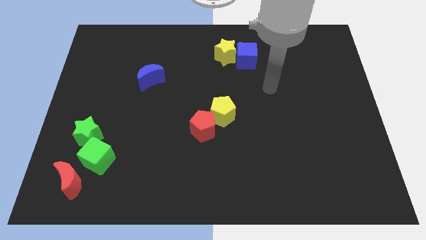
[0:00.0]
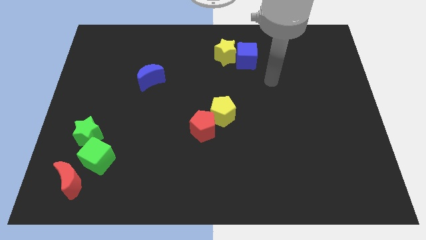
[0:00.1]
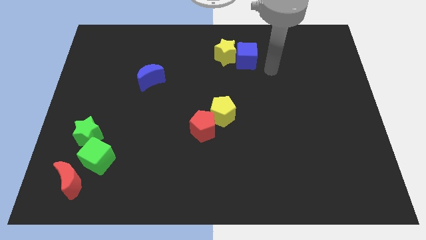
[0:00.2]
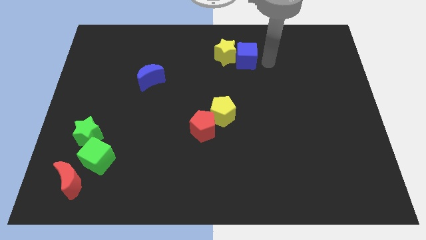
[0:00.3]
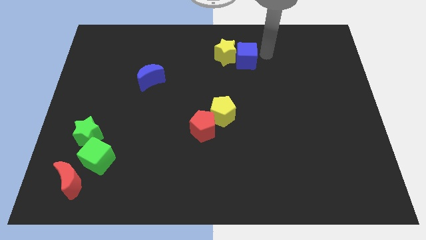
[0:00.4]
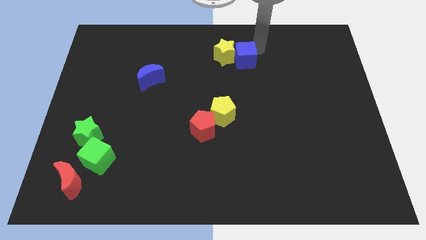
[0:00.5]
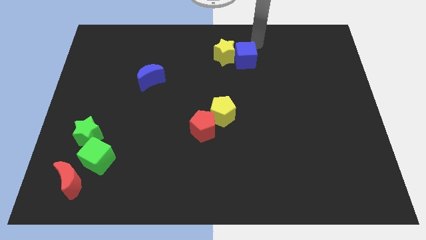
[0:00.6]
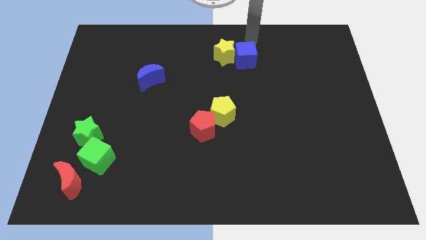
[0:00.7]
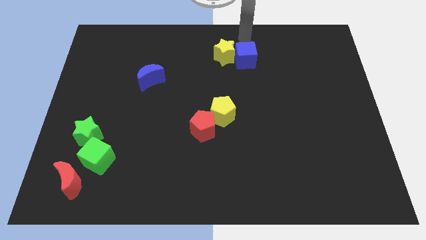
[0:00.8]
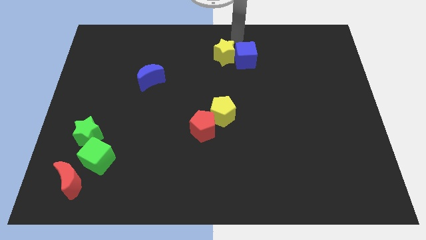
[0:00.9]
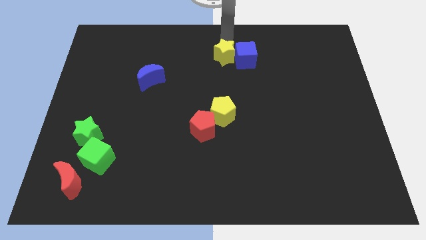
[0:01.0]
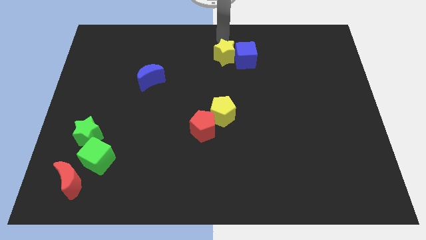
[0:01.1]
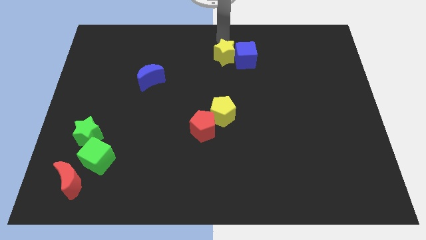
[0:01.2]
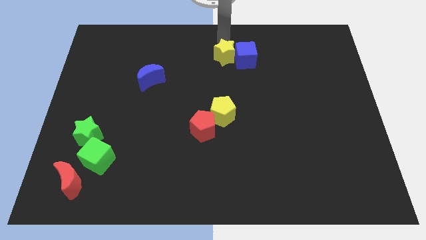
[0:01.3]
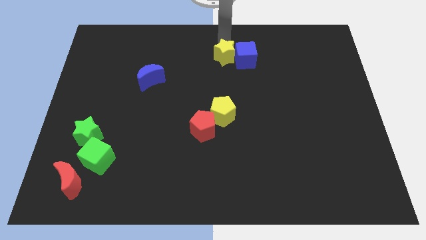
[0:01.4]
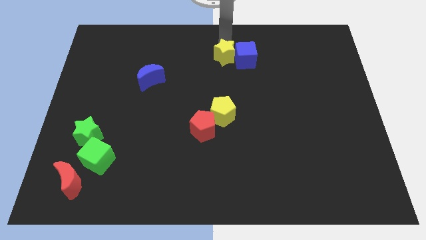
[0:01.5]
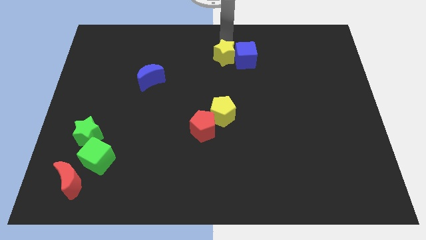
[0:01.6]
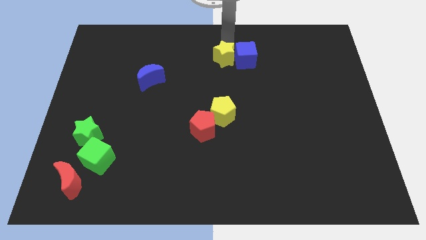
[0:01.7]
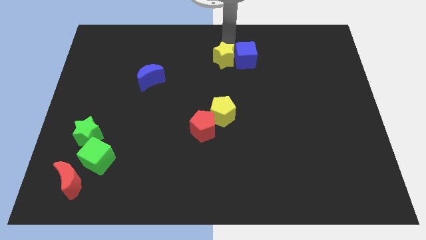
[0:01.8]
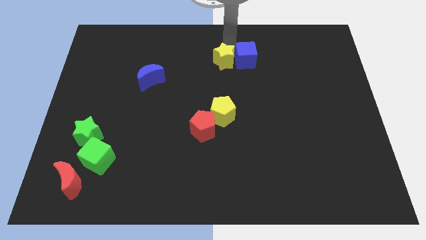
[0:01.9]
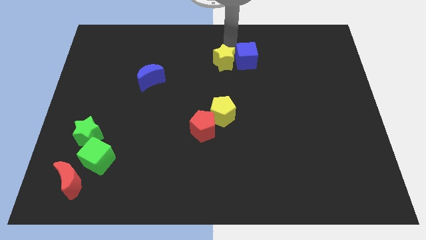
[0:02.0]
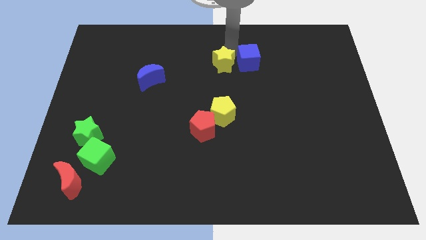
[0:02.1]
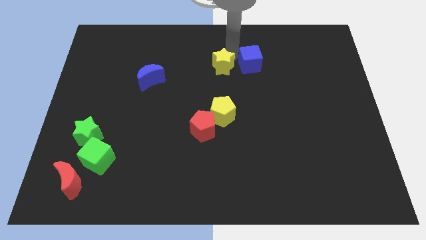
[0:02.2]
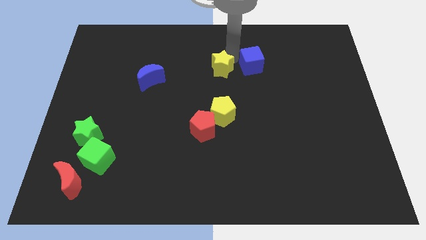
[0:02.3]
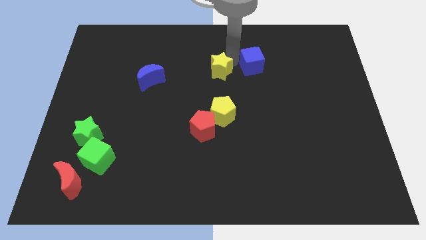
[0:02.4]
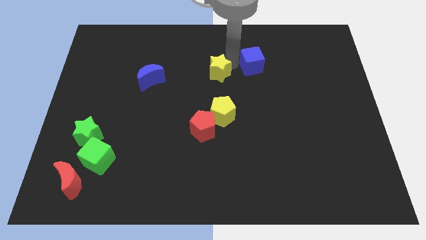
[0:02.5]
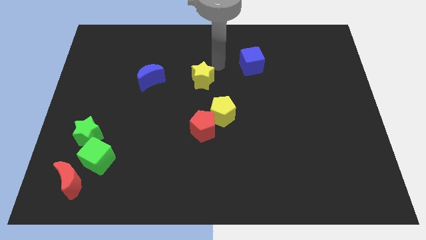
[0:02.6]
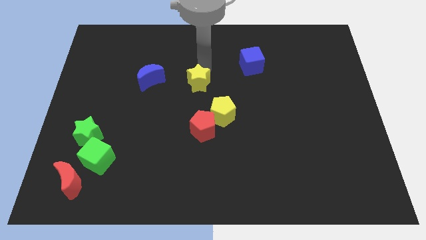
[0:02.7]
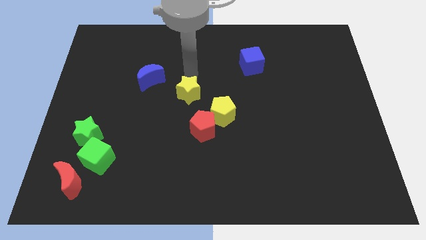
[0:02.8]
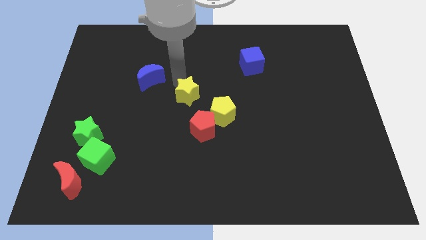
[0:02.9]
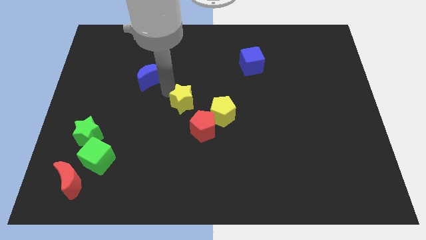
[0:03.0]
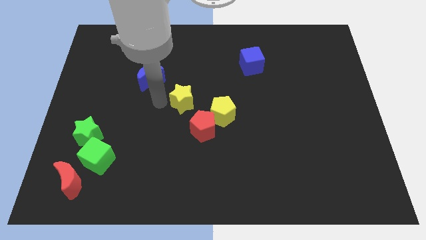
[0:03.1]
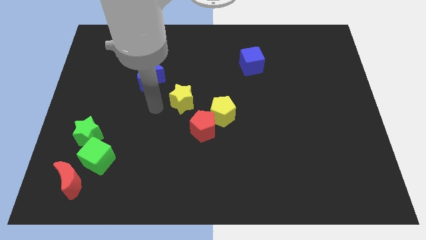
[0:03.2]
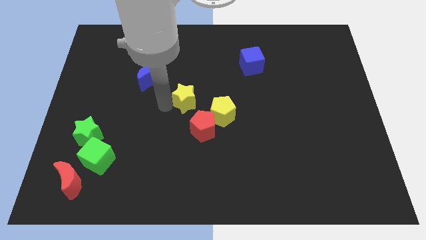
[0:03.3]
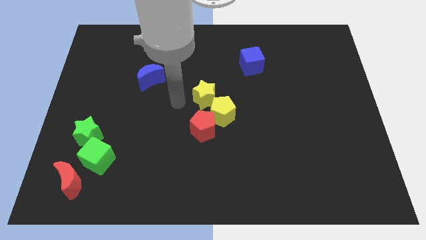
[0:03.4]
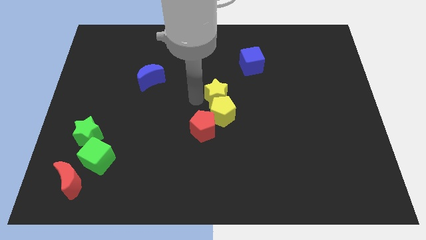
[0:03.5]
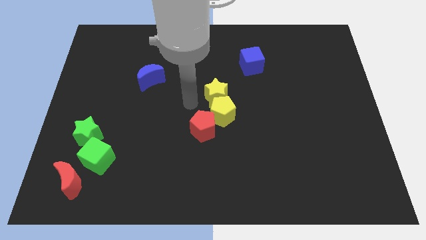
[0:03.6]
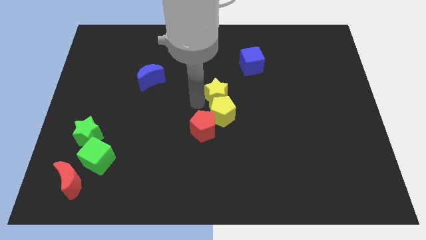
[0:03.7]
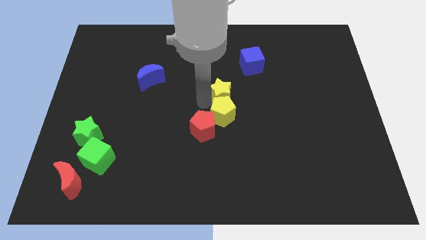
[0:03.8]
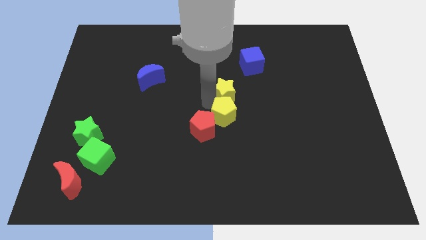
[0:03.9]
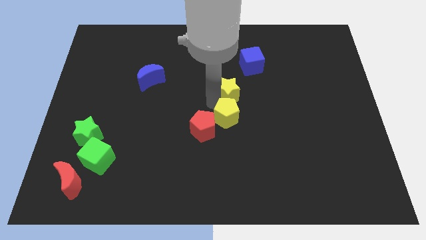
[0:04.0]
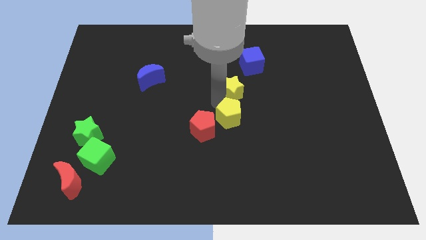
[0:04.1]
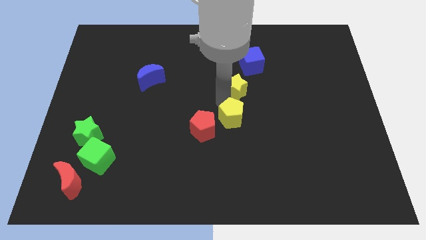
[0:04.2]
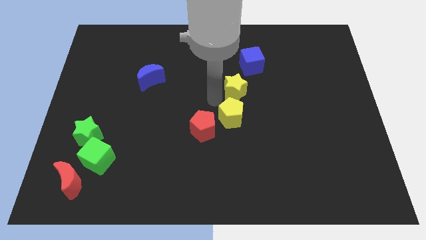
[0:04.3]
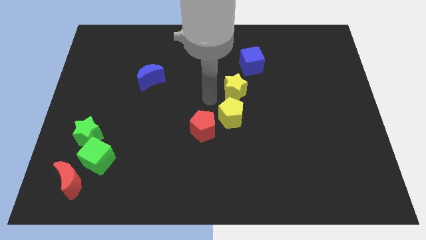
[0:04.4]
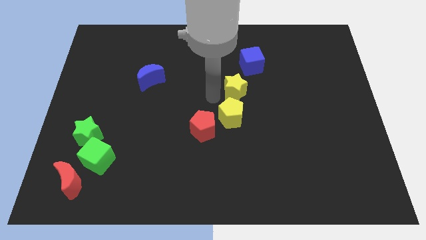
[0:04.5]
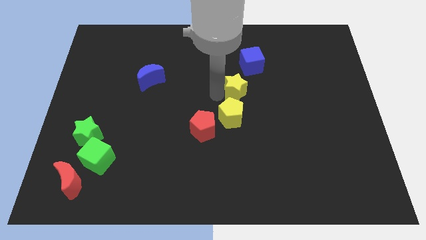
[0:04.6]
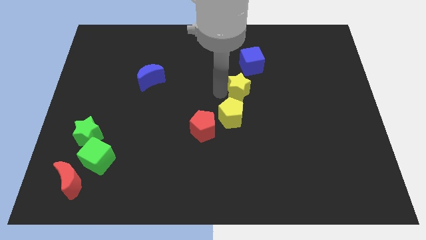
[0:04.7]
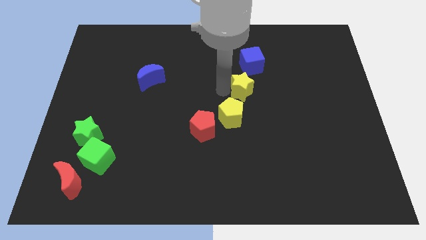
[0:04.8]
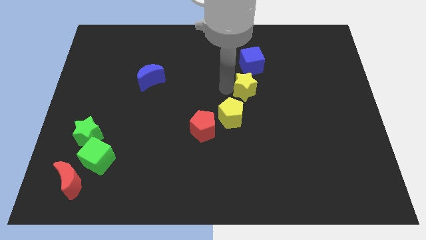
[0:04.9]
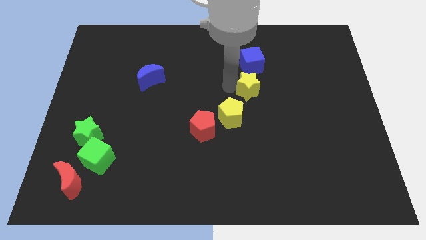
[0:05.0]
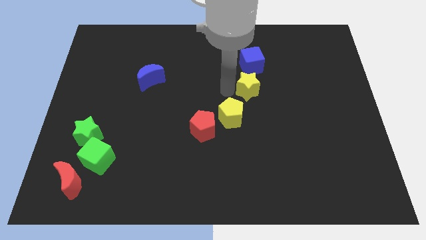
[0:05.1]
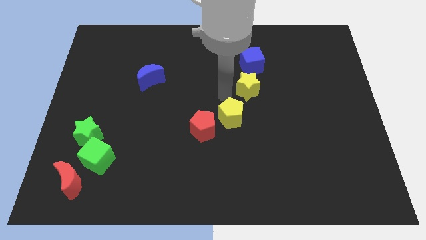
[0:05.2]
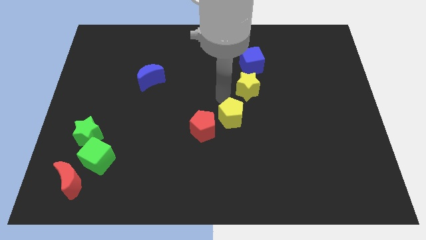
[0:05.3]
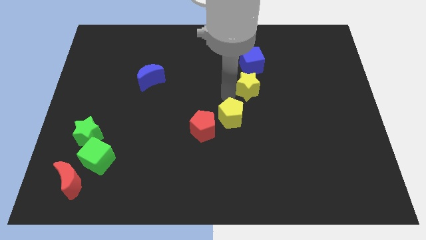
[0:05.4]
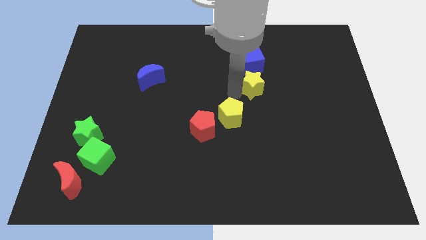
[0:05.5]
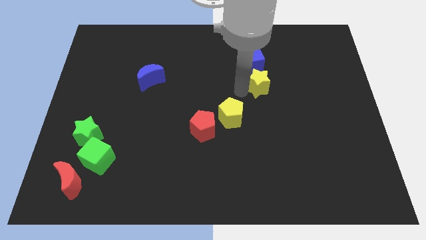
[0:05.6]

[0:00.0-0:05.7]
push the yellow star to the bottom right of the blue cube

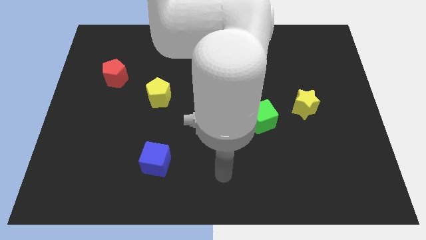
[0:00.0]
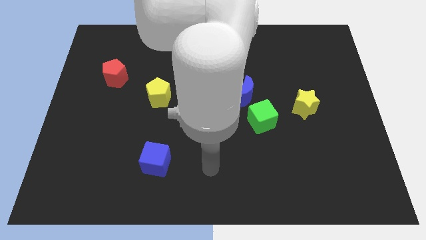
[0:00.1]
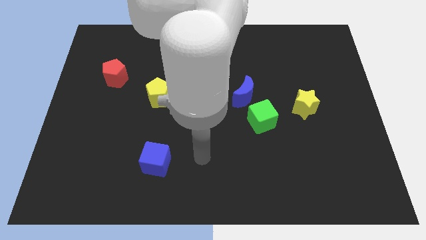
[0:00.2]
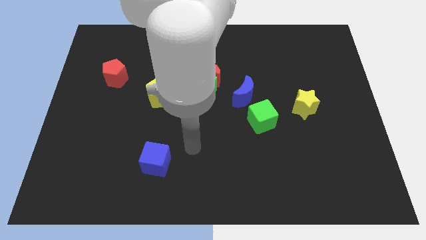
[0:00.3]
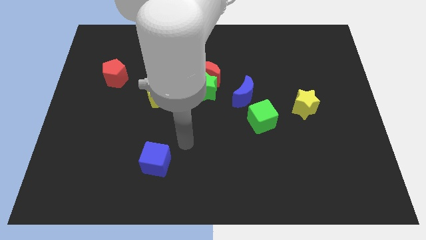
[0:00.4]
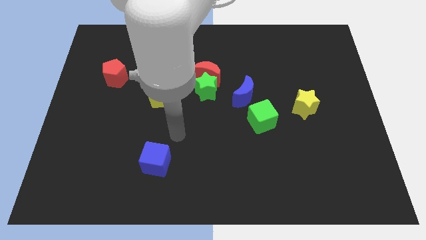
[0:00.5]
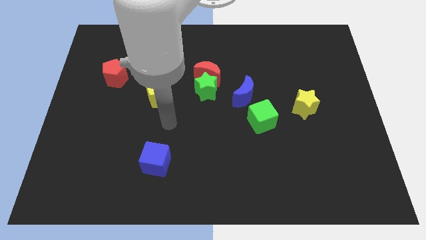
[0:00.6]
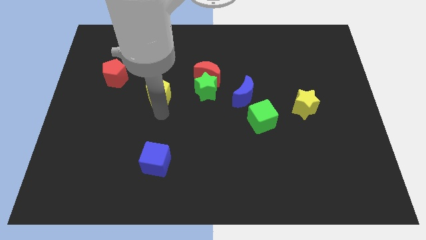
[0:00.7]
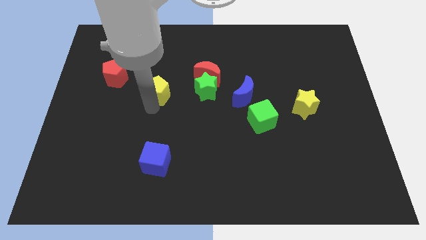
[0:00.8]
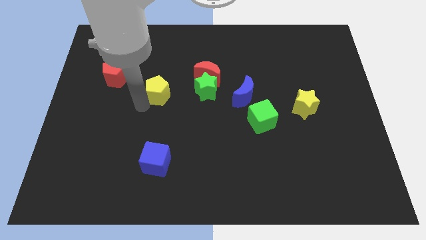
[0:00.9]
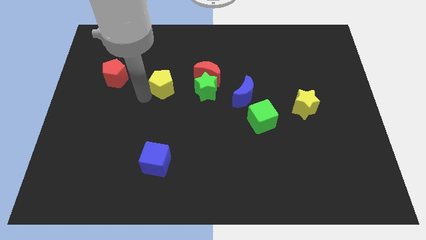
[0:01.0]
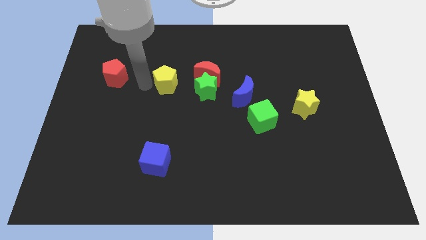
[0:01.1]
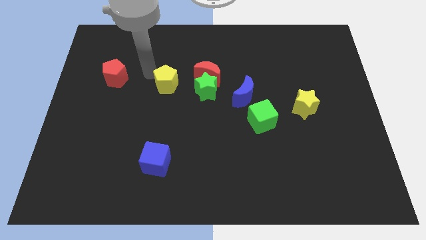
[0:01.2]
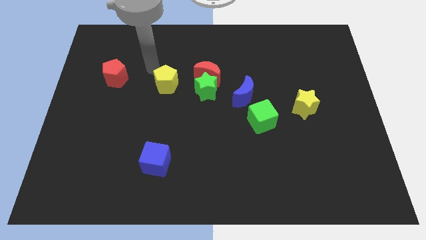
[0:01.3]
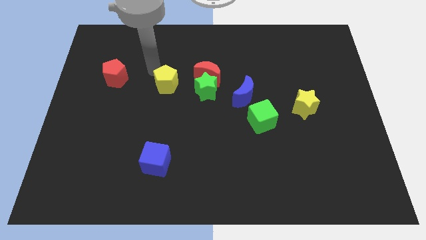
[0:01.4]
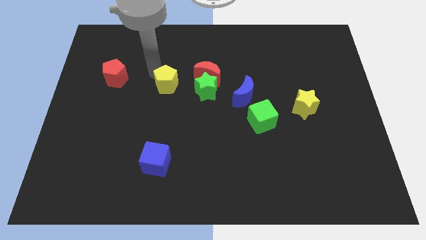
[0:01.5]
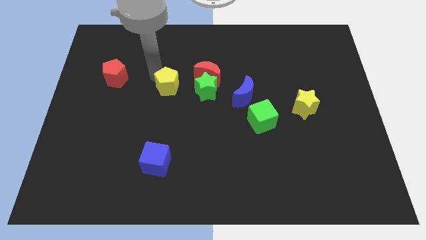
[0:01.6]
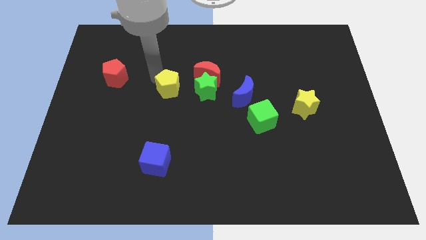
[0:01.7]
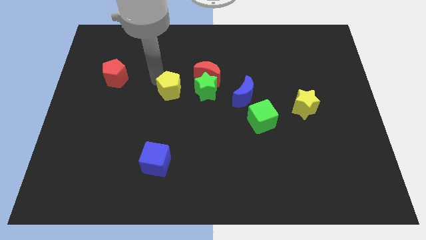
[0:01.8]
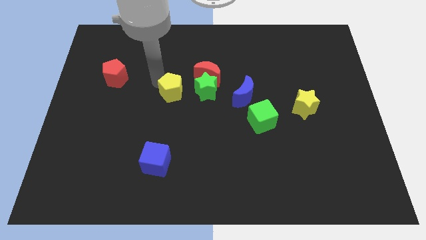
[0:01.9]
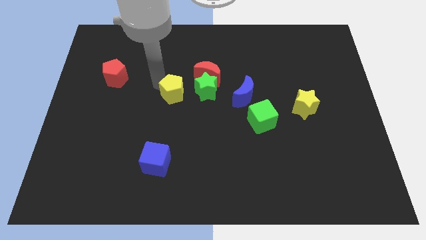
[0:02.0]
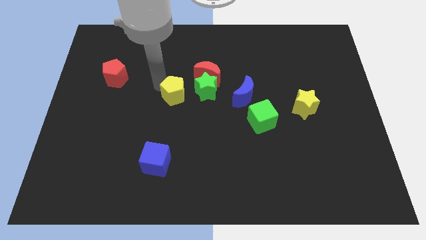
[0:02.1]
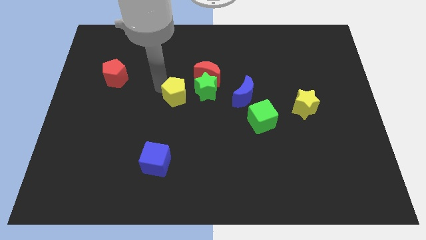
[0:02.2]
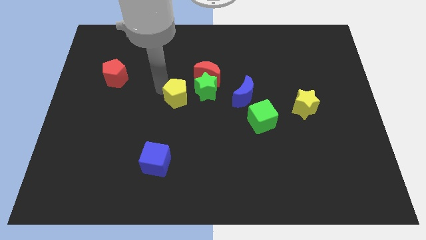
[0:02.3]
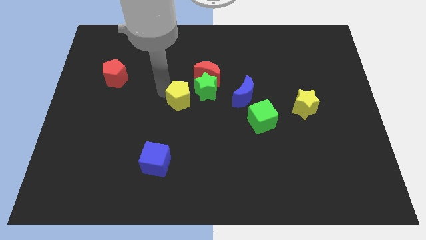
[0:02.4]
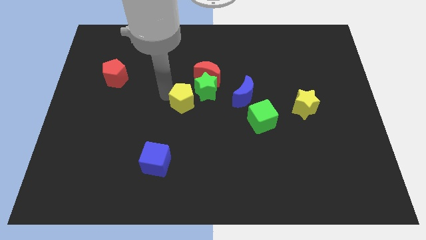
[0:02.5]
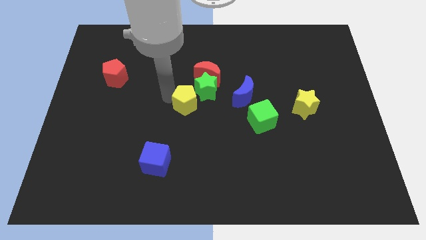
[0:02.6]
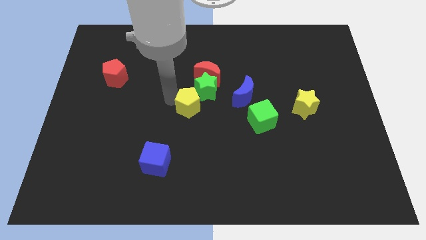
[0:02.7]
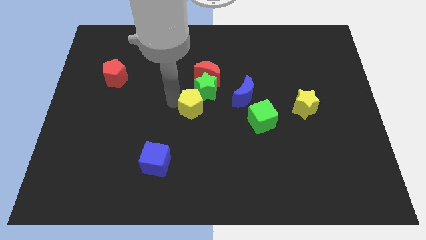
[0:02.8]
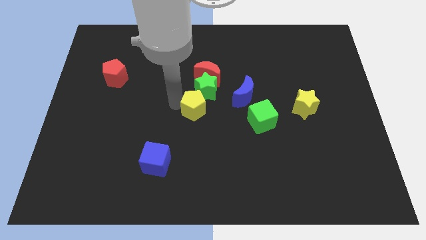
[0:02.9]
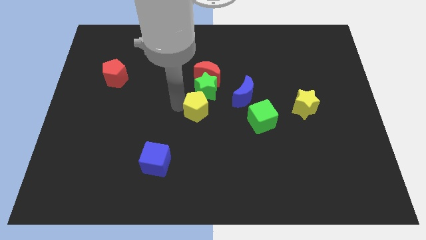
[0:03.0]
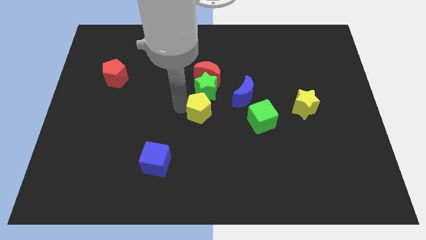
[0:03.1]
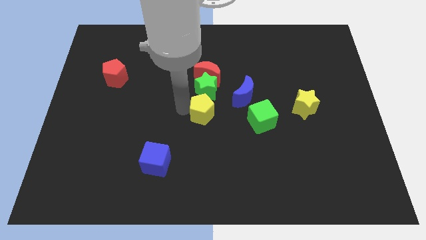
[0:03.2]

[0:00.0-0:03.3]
slide the yellow pentagon to the bottom left side of the blue moon
